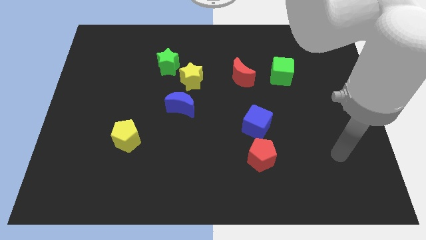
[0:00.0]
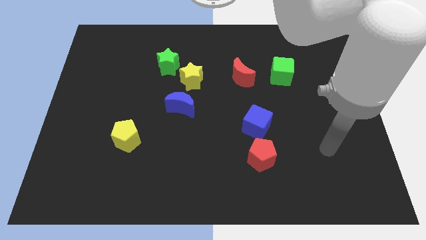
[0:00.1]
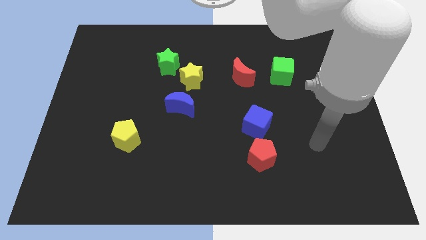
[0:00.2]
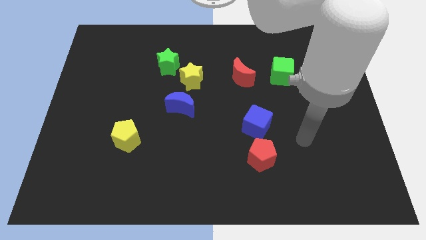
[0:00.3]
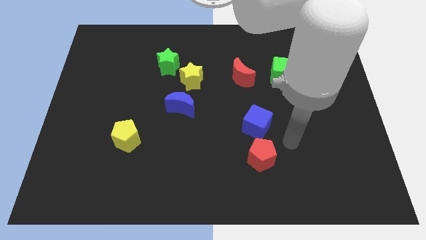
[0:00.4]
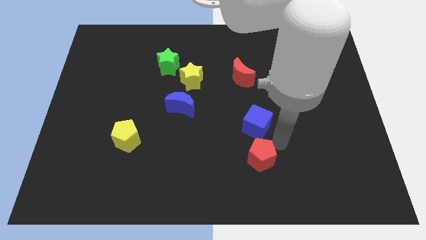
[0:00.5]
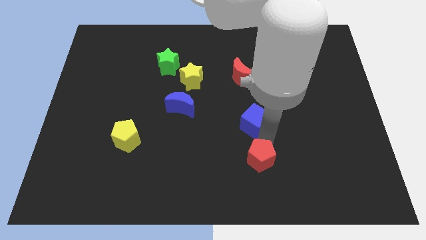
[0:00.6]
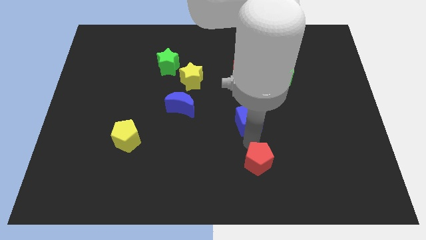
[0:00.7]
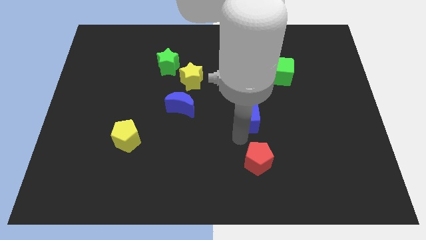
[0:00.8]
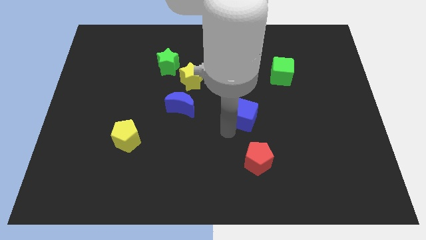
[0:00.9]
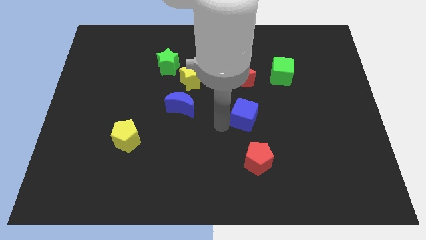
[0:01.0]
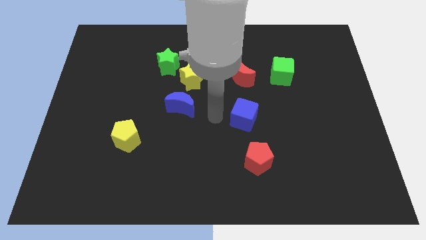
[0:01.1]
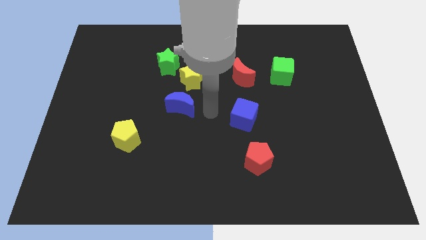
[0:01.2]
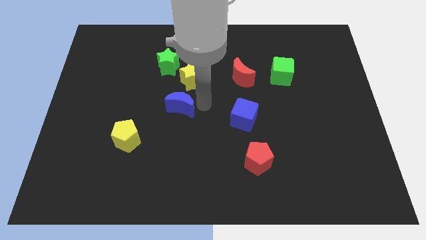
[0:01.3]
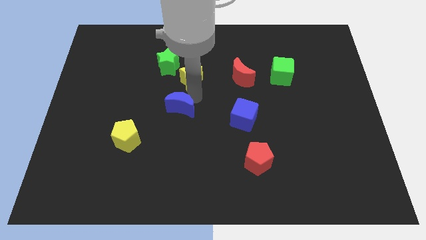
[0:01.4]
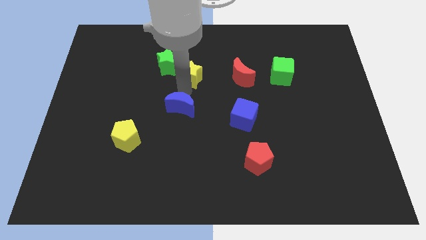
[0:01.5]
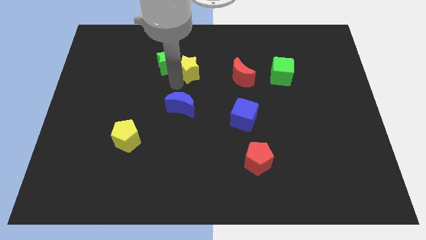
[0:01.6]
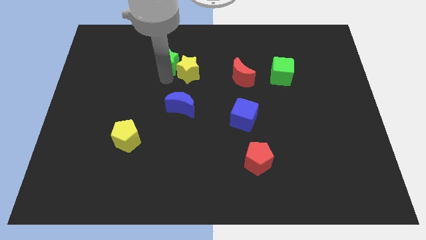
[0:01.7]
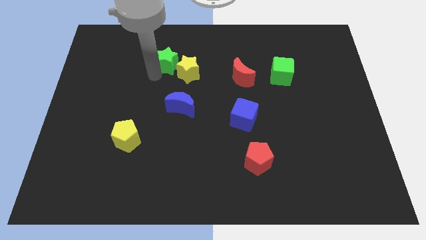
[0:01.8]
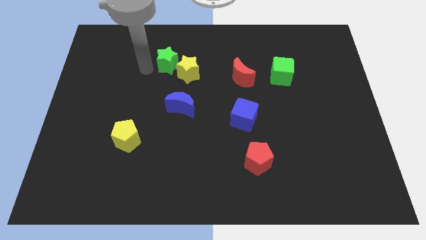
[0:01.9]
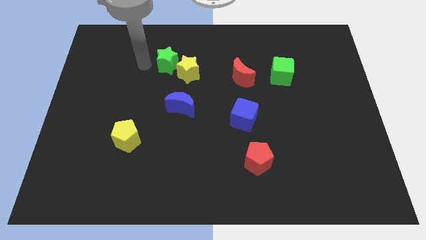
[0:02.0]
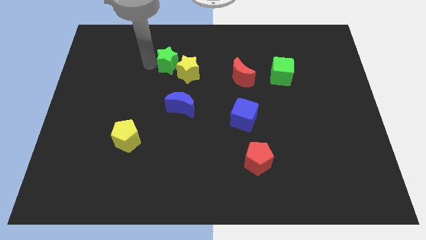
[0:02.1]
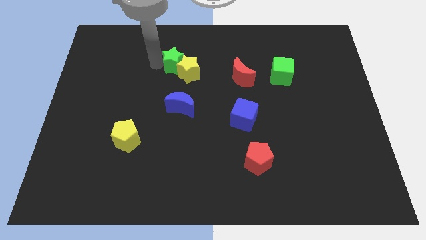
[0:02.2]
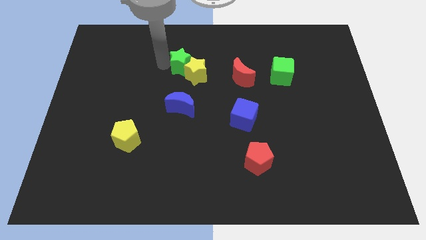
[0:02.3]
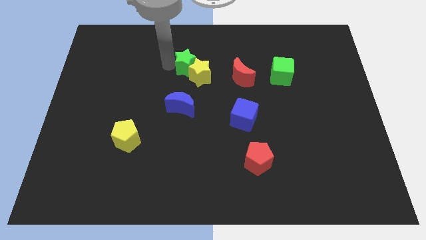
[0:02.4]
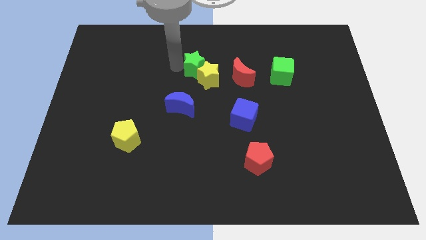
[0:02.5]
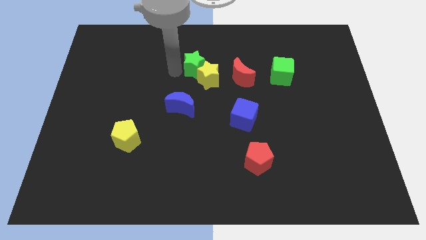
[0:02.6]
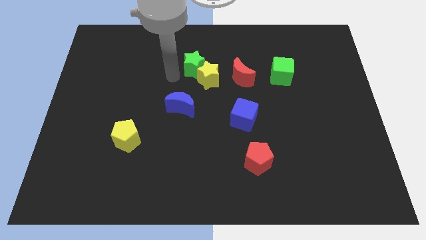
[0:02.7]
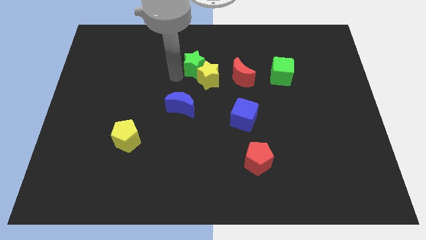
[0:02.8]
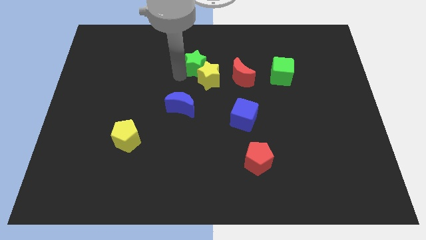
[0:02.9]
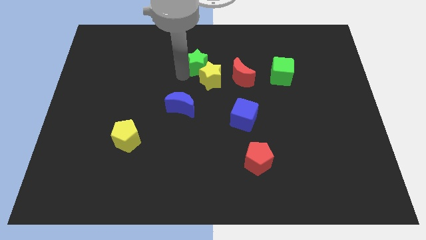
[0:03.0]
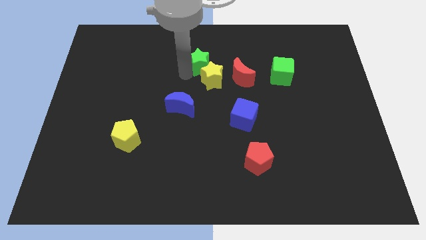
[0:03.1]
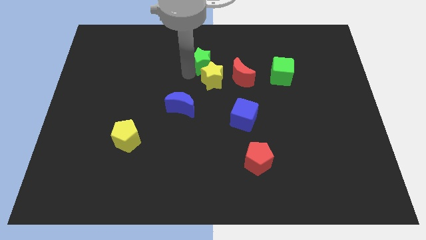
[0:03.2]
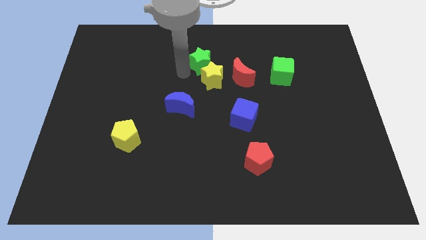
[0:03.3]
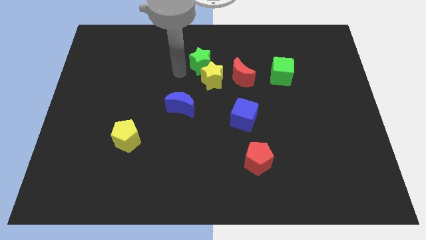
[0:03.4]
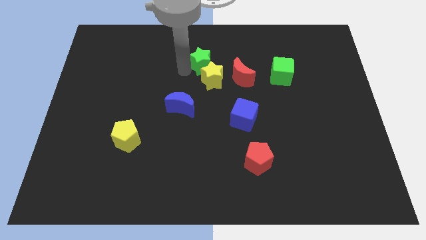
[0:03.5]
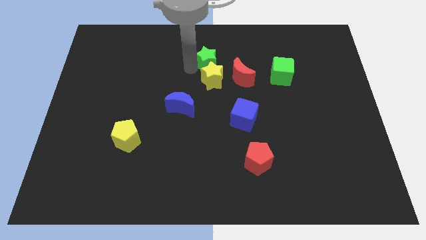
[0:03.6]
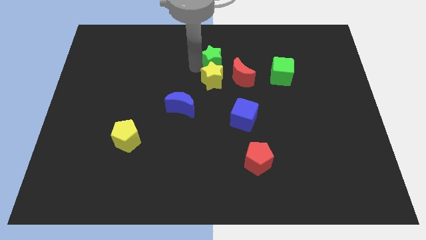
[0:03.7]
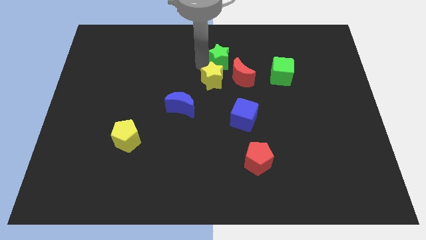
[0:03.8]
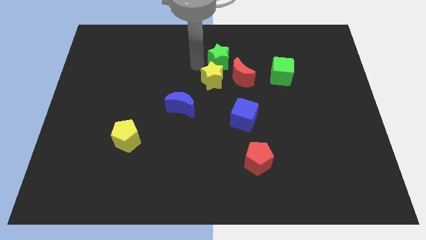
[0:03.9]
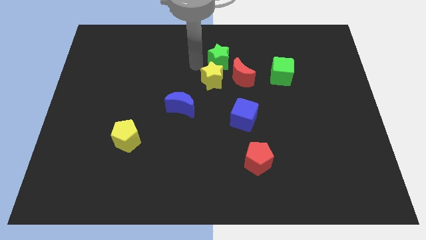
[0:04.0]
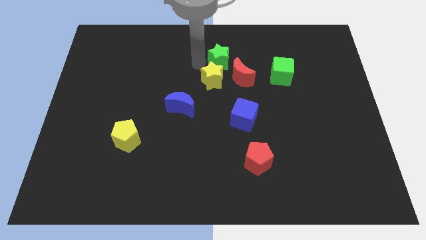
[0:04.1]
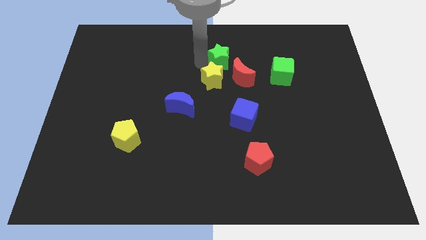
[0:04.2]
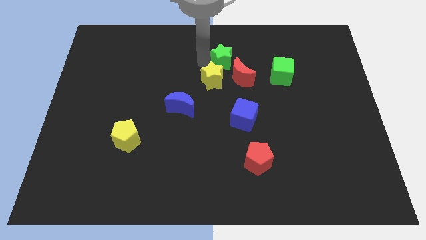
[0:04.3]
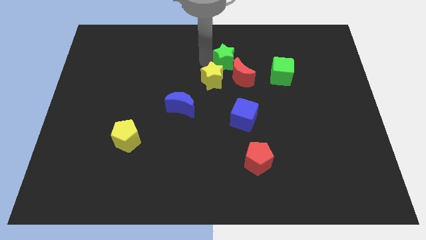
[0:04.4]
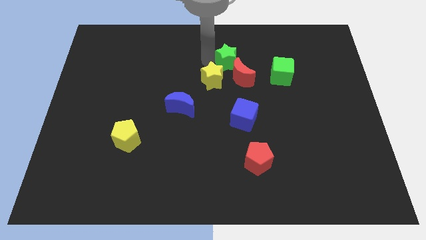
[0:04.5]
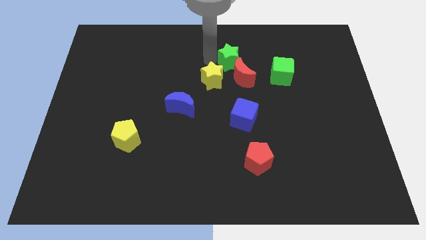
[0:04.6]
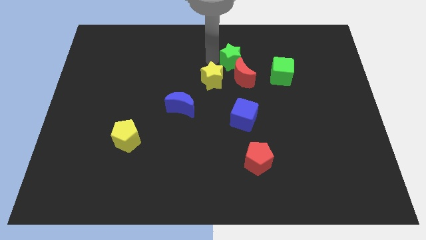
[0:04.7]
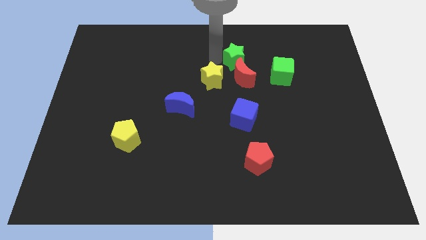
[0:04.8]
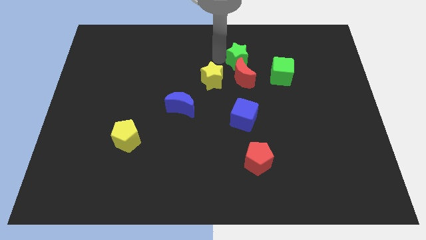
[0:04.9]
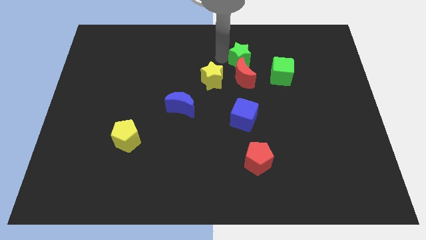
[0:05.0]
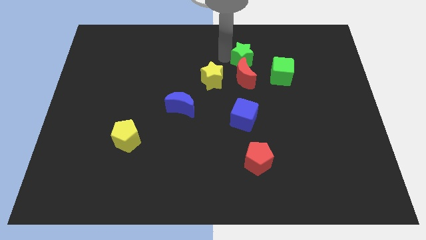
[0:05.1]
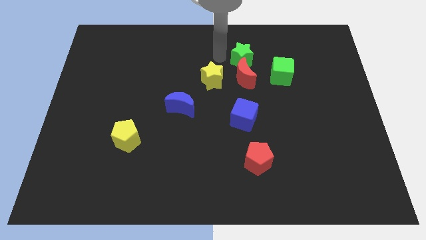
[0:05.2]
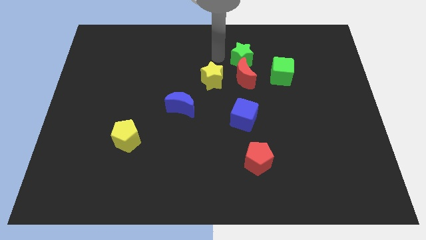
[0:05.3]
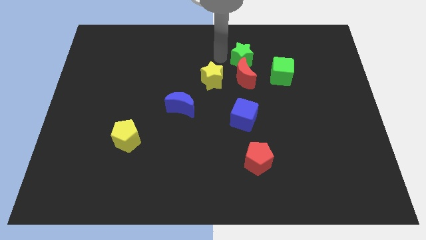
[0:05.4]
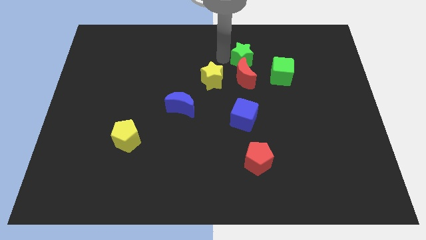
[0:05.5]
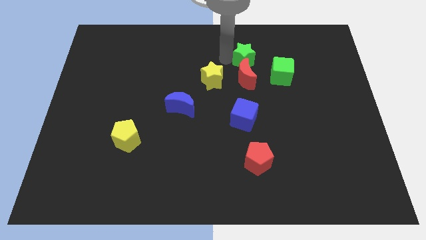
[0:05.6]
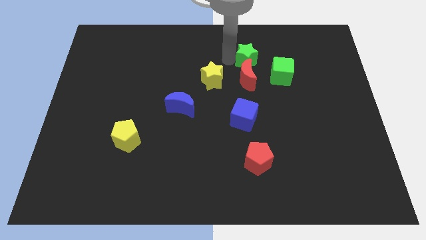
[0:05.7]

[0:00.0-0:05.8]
slide the green star to the right

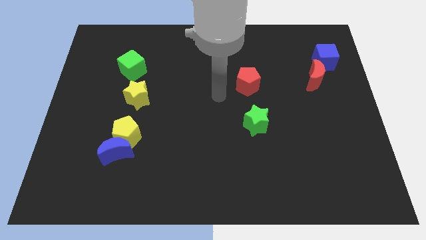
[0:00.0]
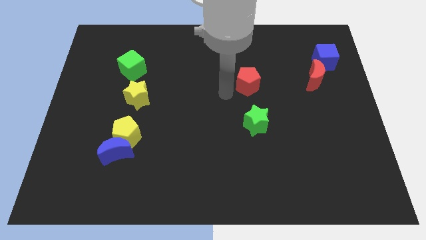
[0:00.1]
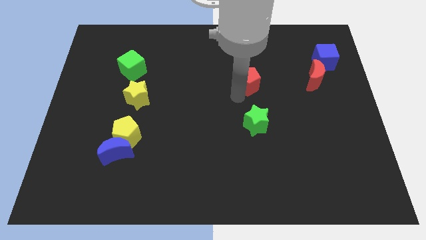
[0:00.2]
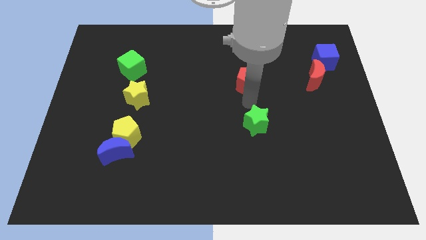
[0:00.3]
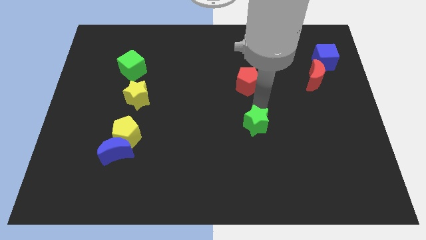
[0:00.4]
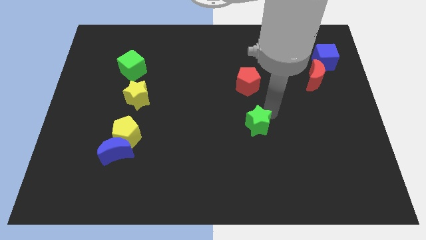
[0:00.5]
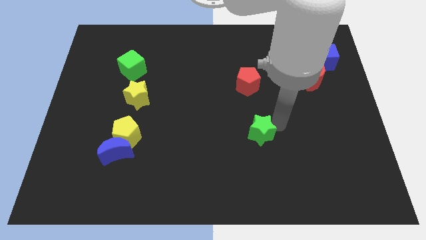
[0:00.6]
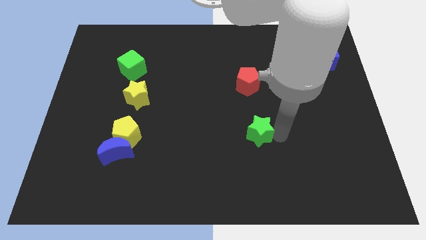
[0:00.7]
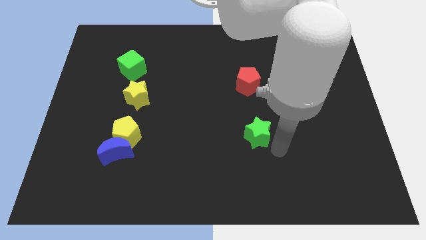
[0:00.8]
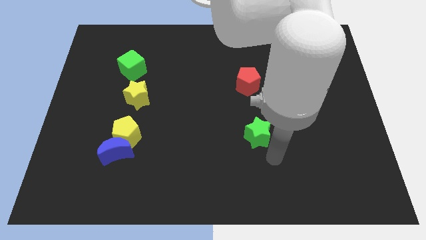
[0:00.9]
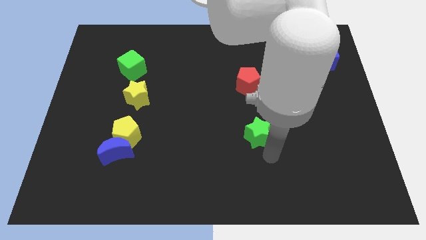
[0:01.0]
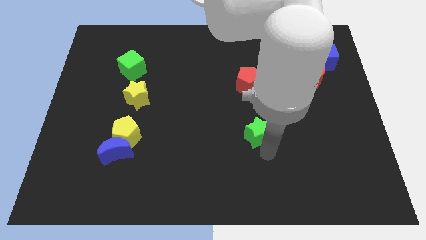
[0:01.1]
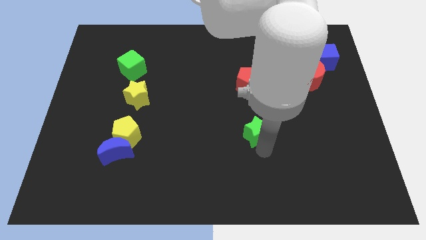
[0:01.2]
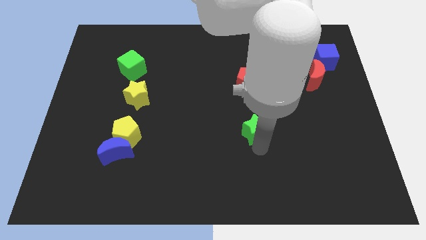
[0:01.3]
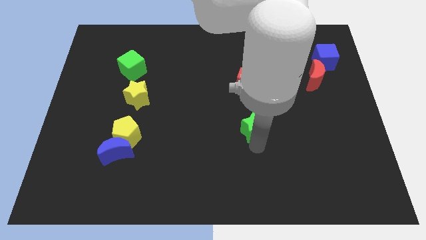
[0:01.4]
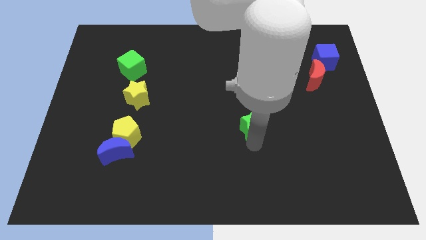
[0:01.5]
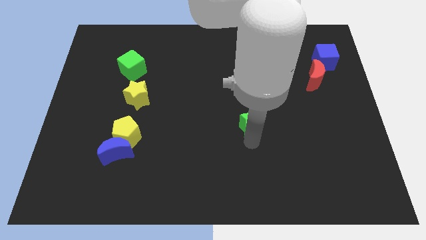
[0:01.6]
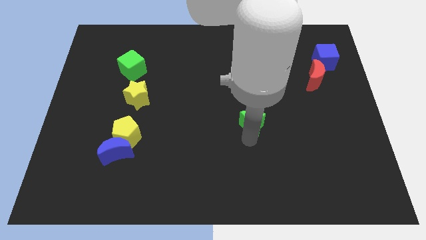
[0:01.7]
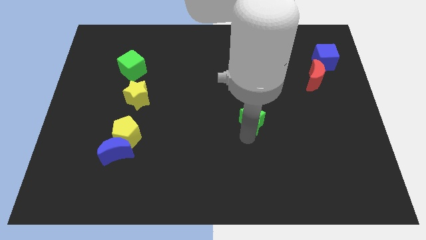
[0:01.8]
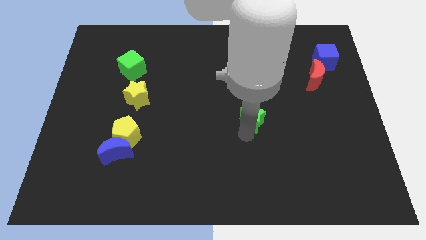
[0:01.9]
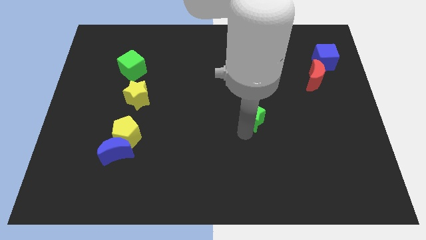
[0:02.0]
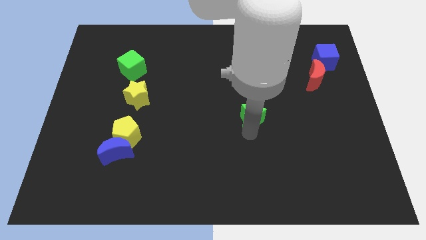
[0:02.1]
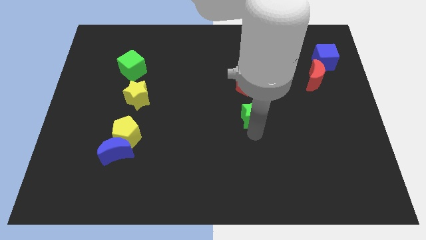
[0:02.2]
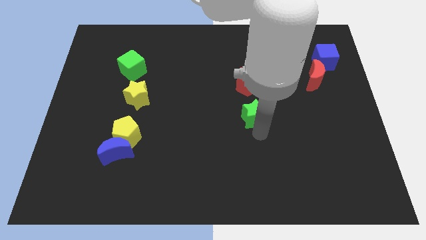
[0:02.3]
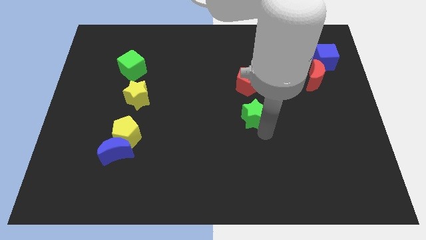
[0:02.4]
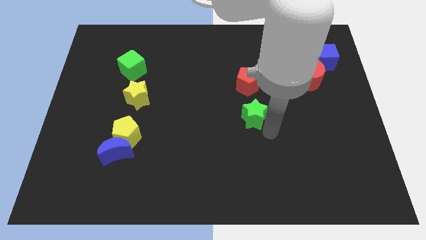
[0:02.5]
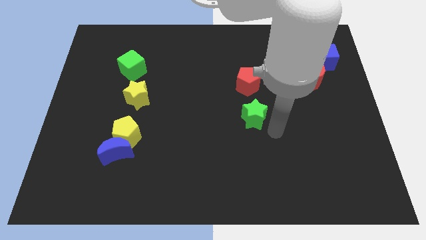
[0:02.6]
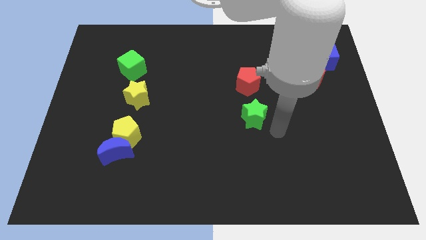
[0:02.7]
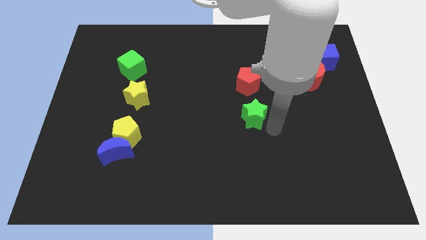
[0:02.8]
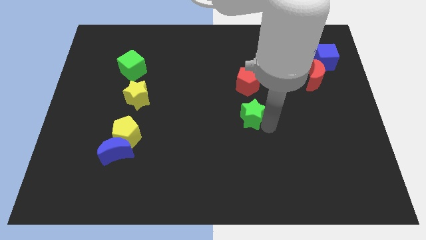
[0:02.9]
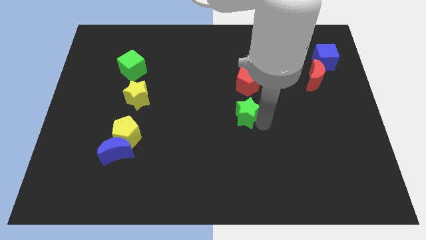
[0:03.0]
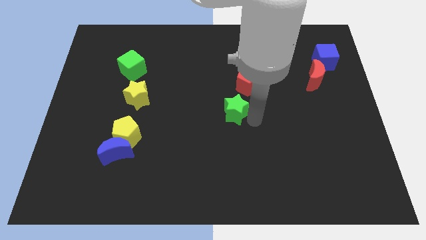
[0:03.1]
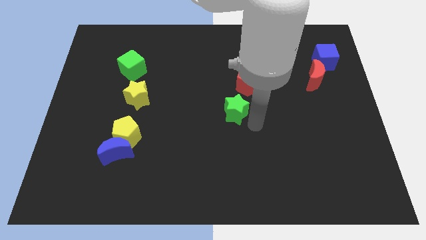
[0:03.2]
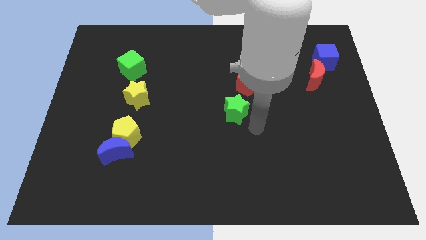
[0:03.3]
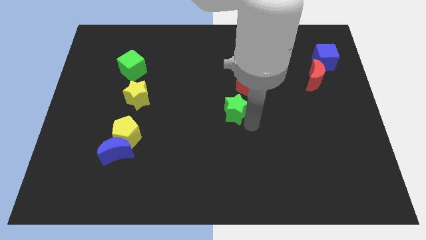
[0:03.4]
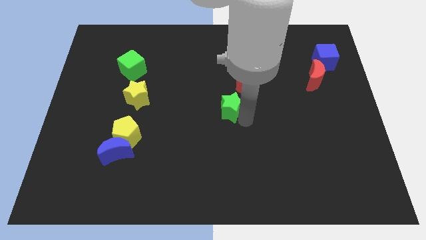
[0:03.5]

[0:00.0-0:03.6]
push the green star somewhat upwards and to the left
